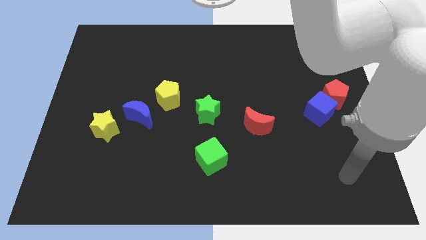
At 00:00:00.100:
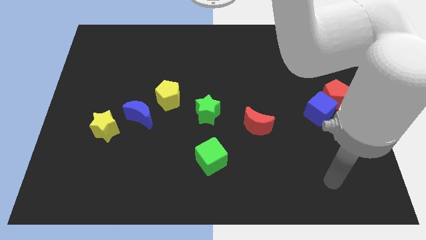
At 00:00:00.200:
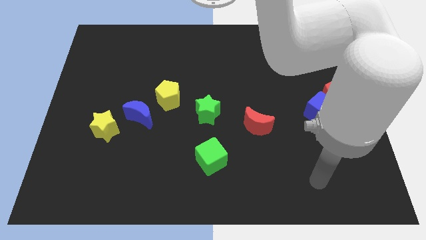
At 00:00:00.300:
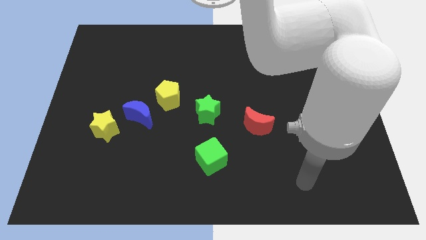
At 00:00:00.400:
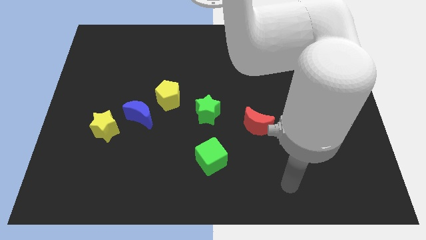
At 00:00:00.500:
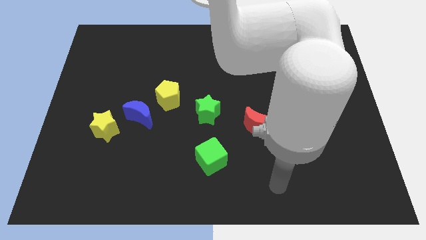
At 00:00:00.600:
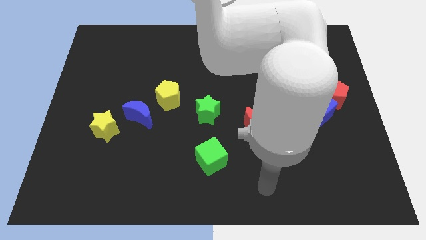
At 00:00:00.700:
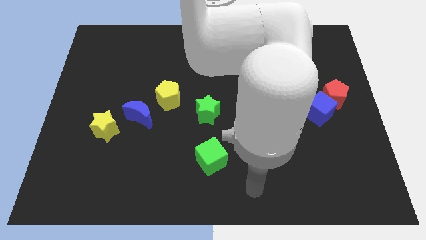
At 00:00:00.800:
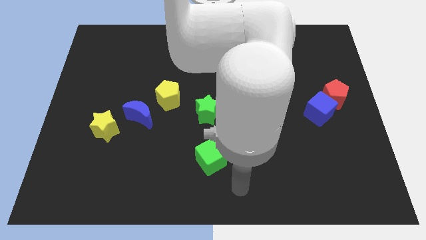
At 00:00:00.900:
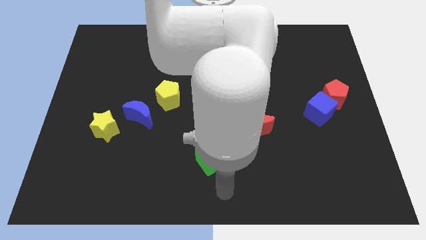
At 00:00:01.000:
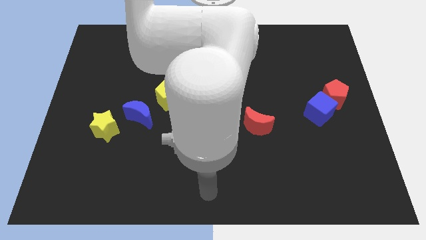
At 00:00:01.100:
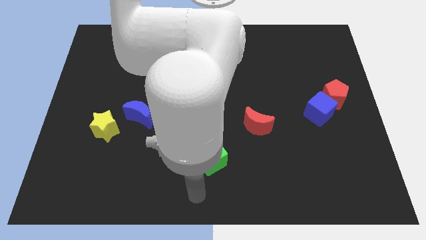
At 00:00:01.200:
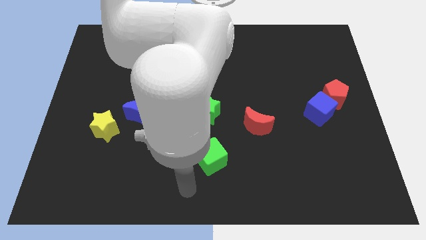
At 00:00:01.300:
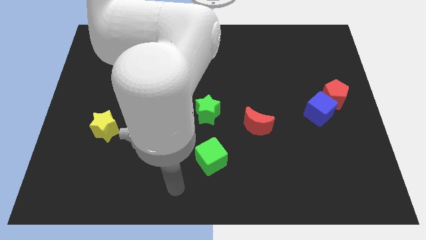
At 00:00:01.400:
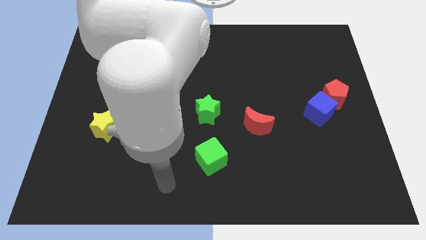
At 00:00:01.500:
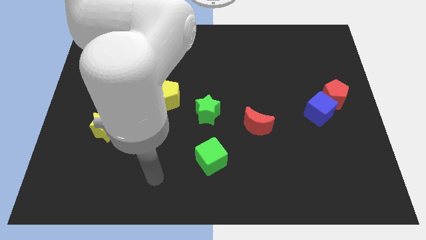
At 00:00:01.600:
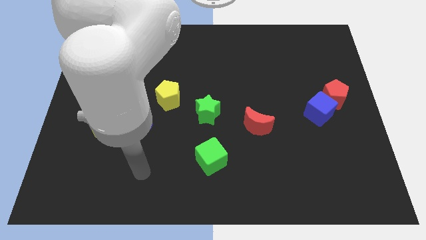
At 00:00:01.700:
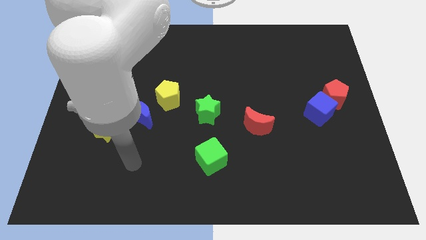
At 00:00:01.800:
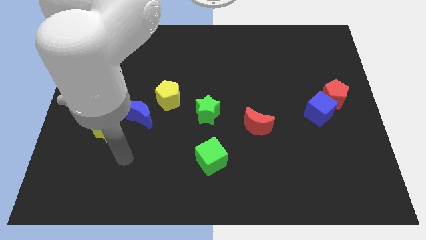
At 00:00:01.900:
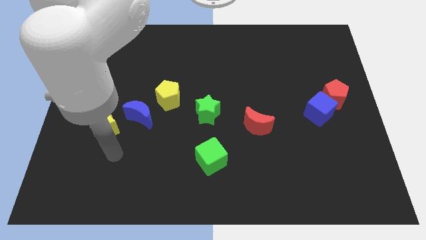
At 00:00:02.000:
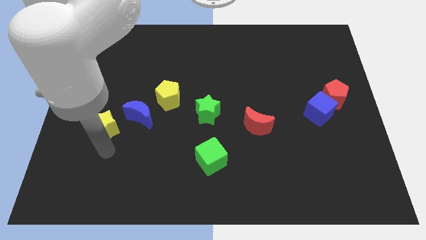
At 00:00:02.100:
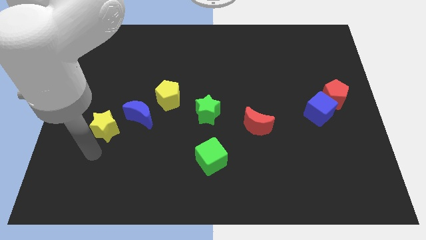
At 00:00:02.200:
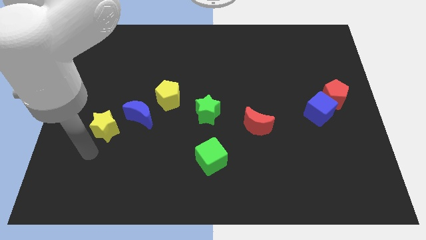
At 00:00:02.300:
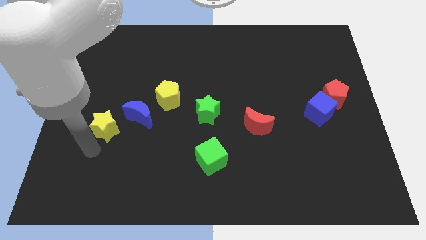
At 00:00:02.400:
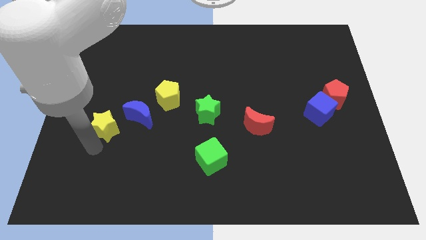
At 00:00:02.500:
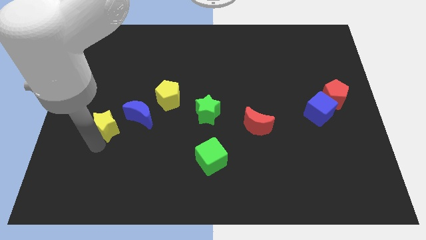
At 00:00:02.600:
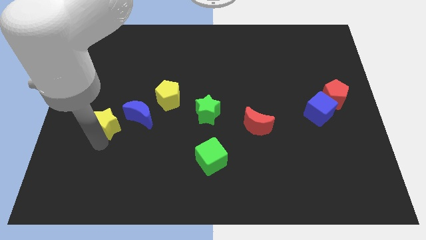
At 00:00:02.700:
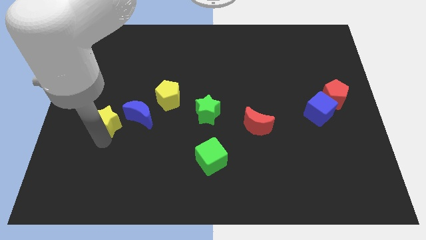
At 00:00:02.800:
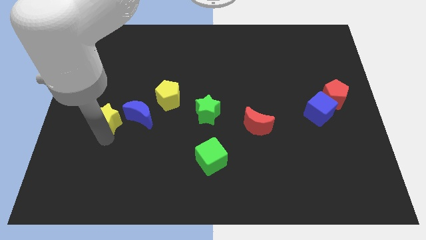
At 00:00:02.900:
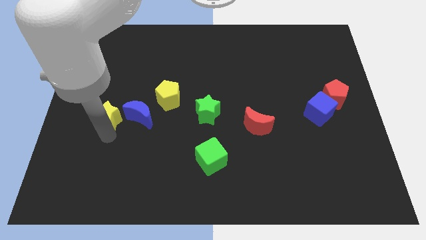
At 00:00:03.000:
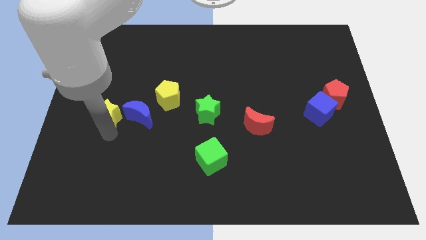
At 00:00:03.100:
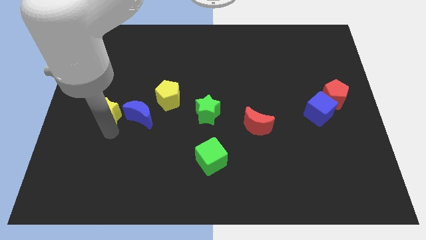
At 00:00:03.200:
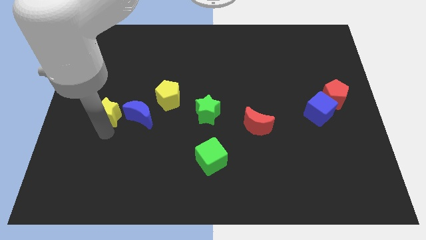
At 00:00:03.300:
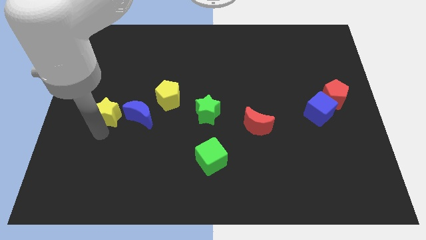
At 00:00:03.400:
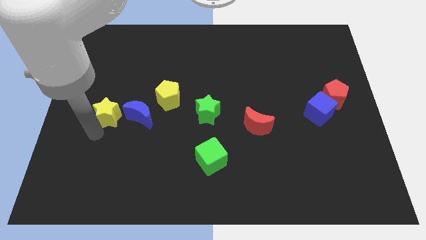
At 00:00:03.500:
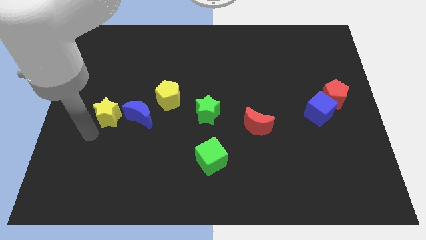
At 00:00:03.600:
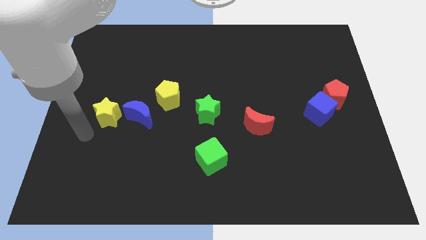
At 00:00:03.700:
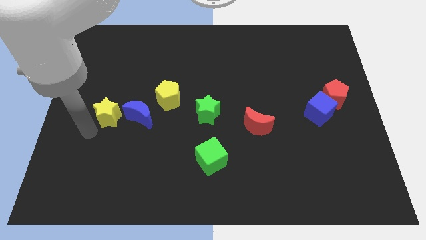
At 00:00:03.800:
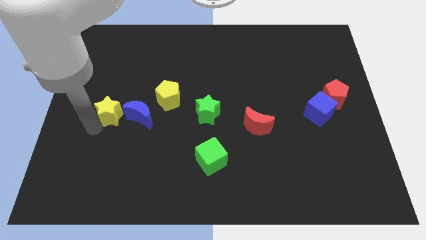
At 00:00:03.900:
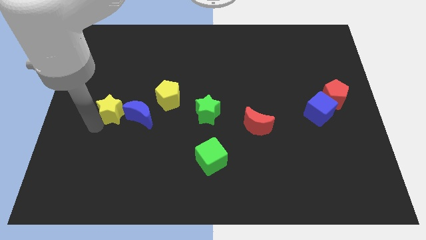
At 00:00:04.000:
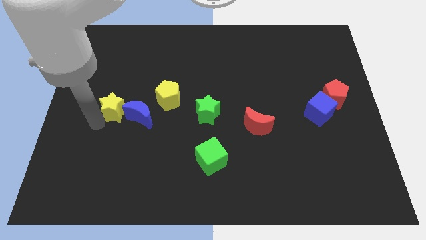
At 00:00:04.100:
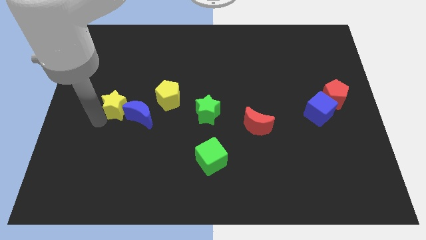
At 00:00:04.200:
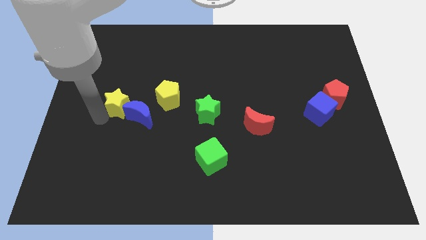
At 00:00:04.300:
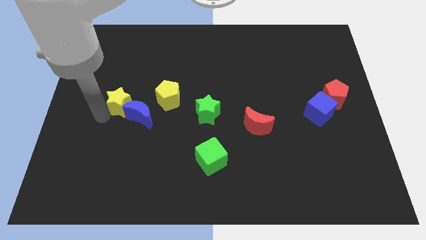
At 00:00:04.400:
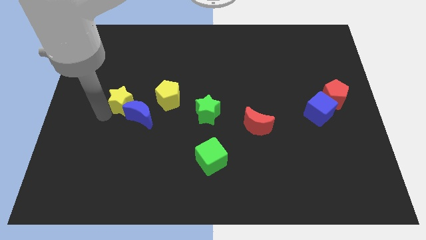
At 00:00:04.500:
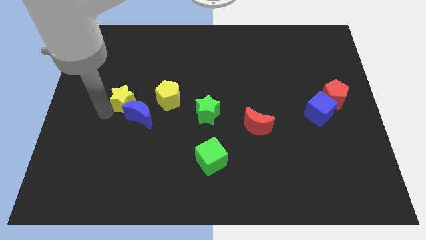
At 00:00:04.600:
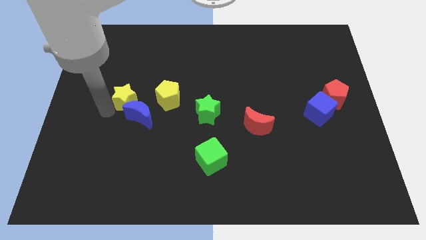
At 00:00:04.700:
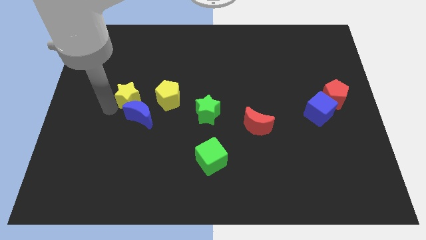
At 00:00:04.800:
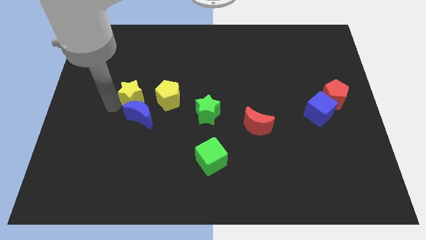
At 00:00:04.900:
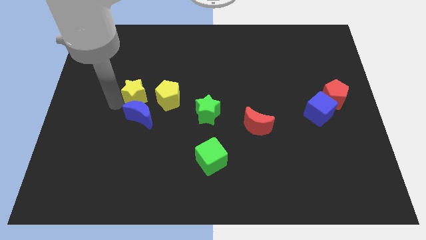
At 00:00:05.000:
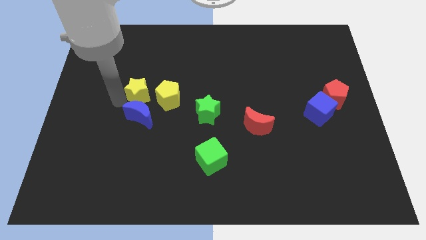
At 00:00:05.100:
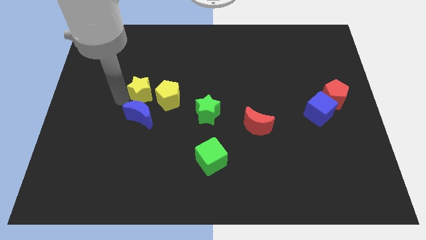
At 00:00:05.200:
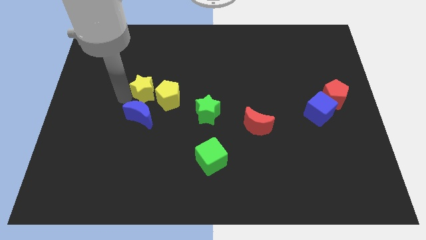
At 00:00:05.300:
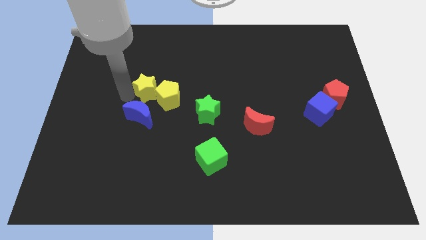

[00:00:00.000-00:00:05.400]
move the yellow star towards the yellow pentagon

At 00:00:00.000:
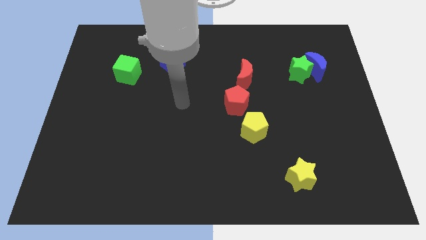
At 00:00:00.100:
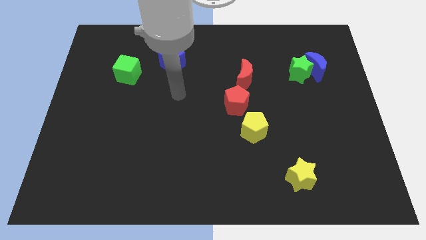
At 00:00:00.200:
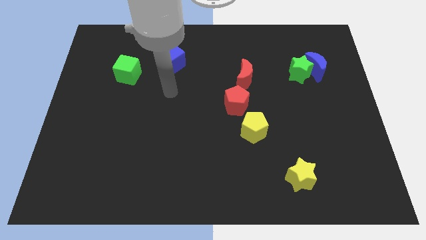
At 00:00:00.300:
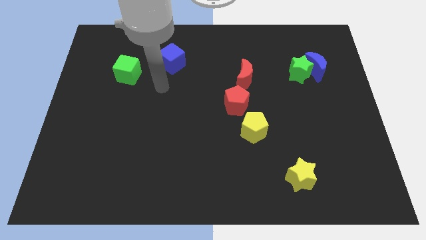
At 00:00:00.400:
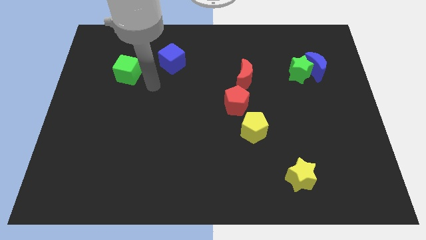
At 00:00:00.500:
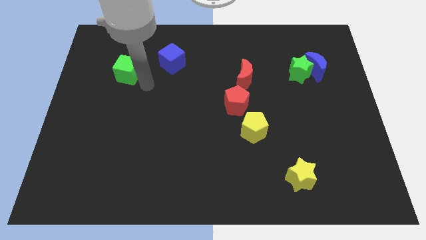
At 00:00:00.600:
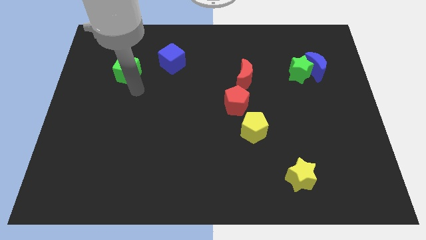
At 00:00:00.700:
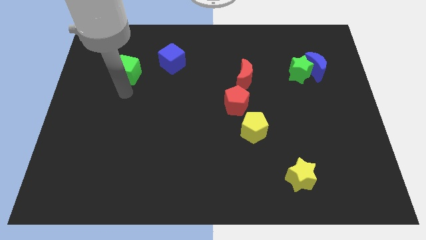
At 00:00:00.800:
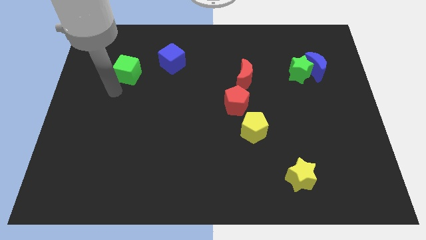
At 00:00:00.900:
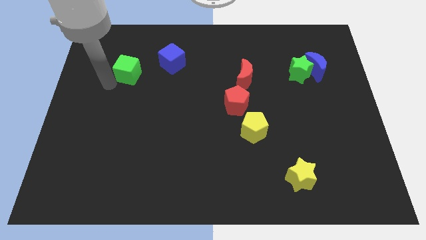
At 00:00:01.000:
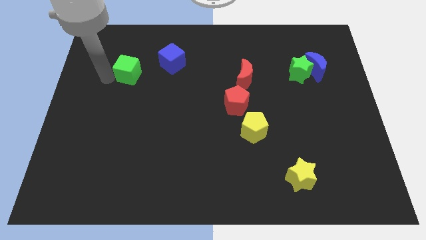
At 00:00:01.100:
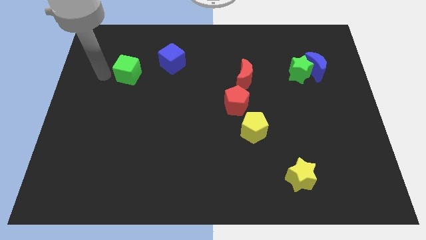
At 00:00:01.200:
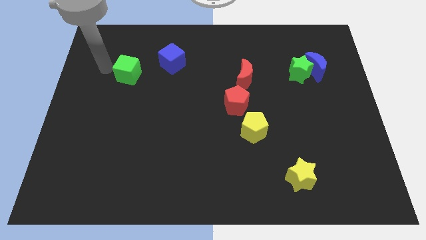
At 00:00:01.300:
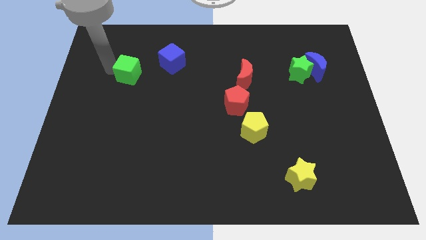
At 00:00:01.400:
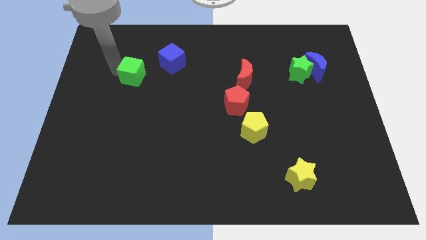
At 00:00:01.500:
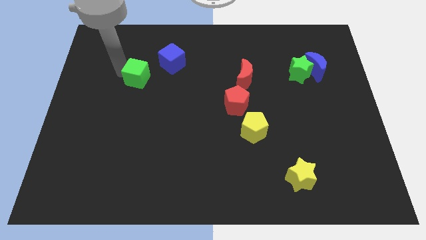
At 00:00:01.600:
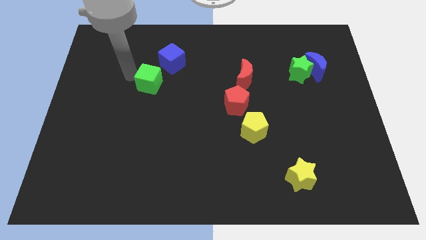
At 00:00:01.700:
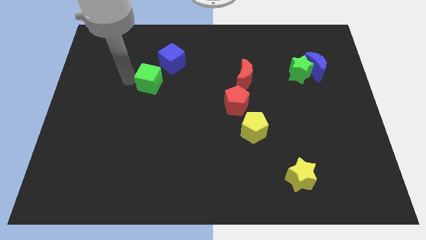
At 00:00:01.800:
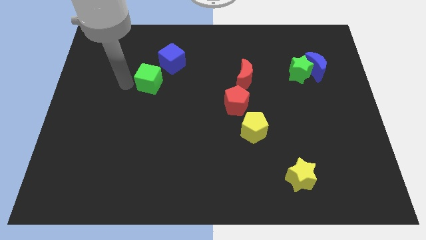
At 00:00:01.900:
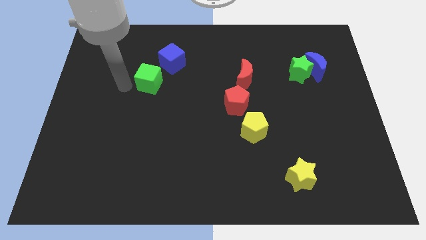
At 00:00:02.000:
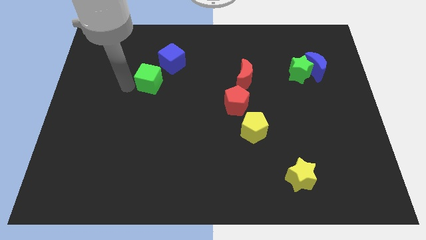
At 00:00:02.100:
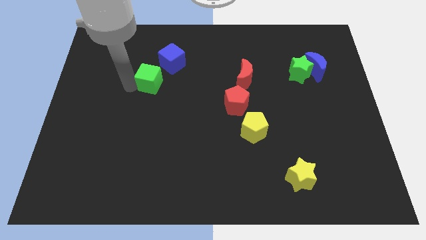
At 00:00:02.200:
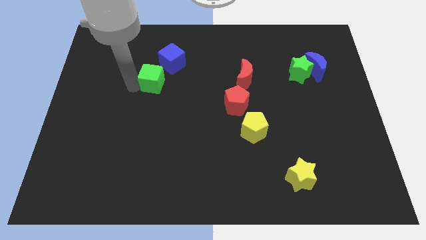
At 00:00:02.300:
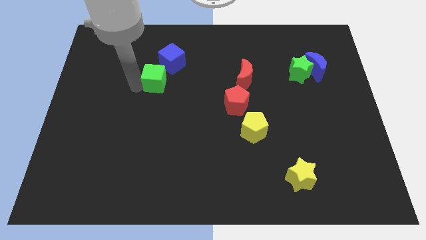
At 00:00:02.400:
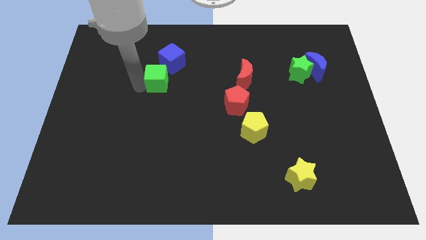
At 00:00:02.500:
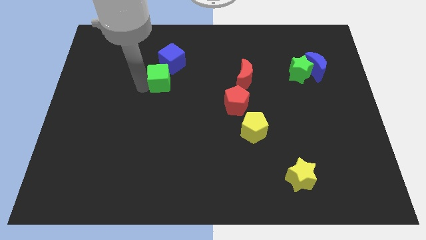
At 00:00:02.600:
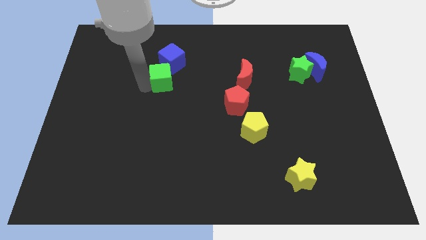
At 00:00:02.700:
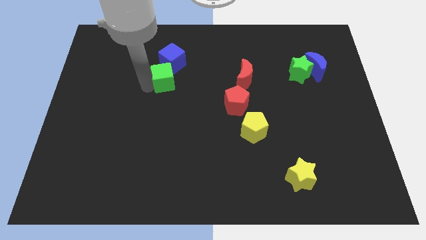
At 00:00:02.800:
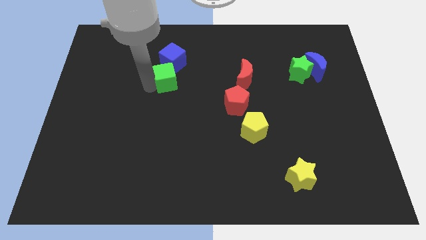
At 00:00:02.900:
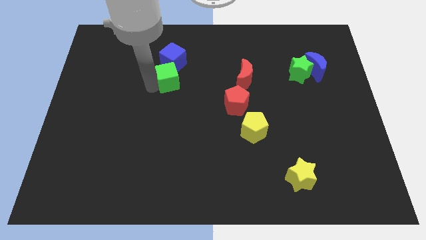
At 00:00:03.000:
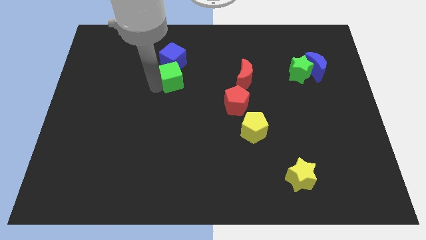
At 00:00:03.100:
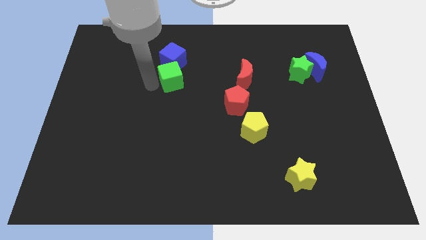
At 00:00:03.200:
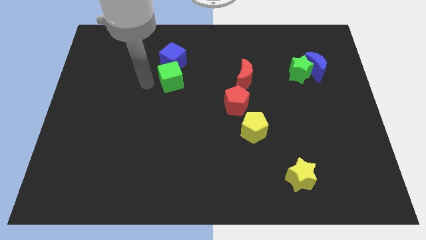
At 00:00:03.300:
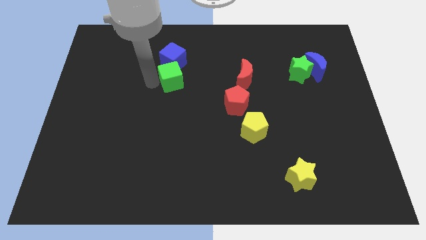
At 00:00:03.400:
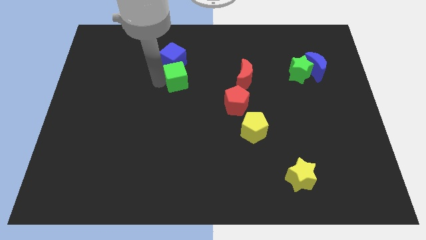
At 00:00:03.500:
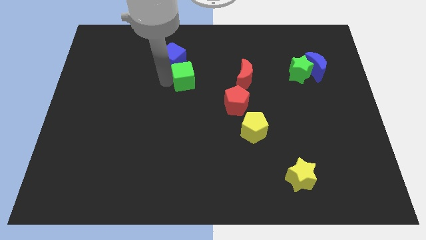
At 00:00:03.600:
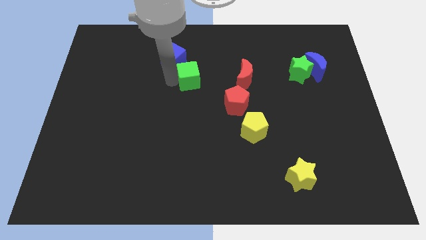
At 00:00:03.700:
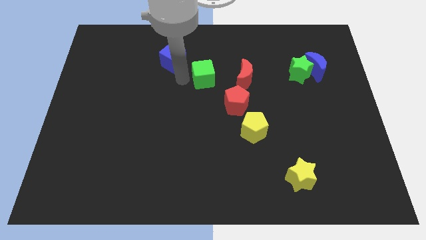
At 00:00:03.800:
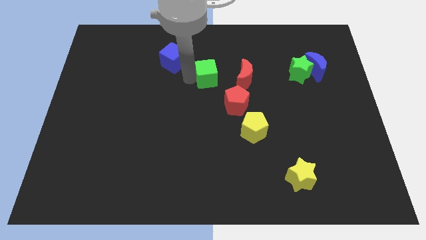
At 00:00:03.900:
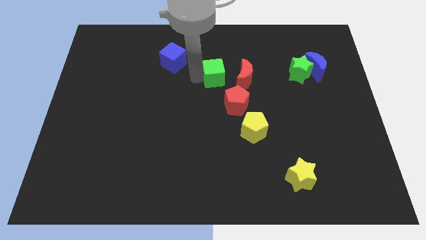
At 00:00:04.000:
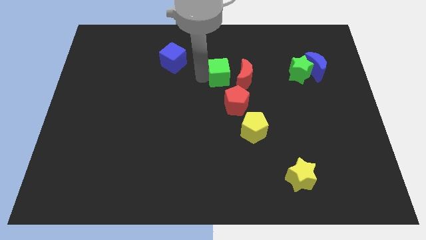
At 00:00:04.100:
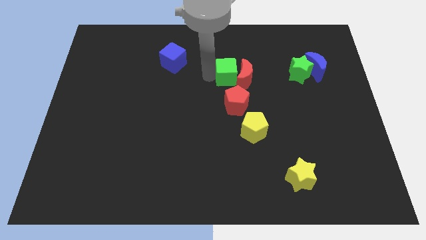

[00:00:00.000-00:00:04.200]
move the green cube towards the red moon
